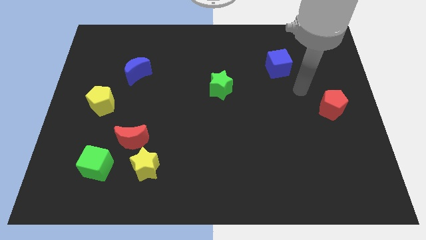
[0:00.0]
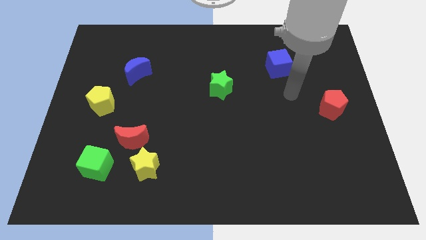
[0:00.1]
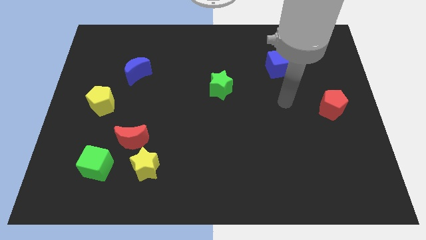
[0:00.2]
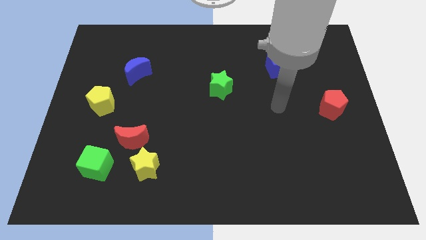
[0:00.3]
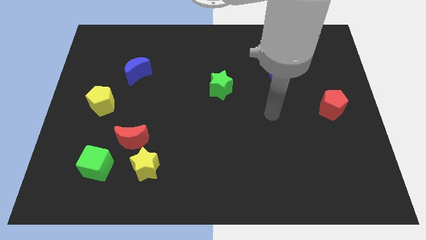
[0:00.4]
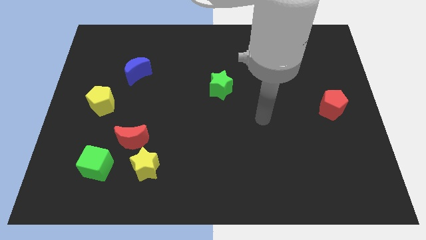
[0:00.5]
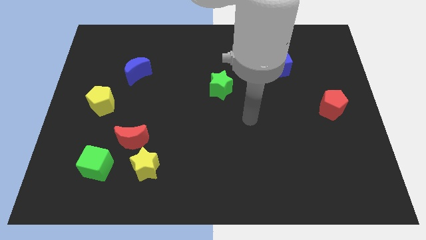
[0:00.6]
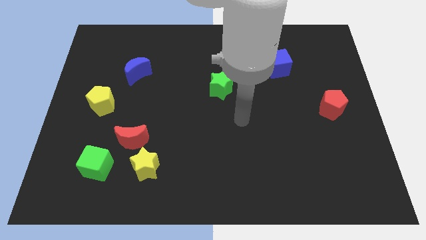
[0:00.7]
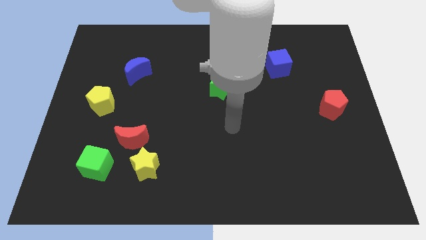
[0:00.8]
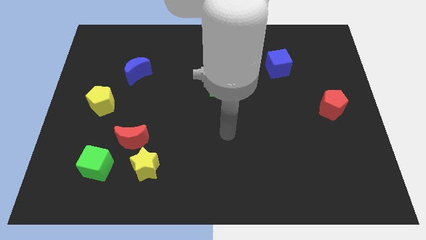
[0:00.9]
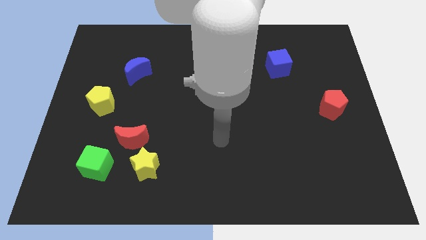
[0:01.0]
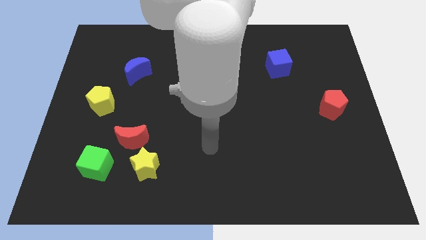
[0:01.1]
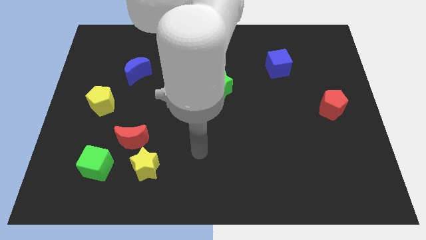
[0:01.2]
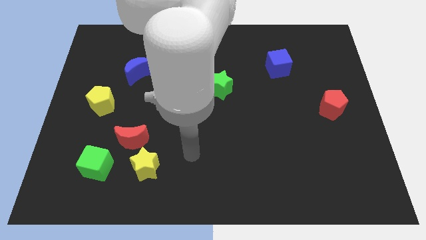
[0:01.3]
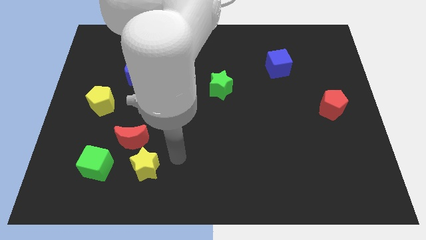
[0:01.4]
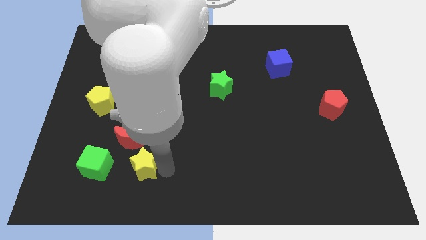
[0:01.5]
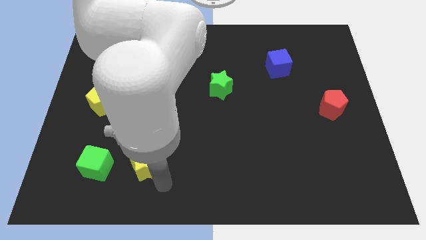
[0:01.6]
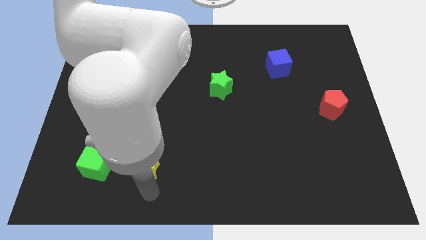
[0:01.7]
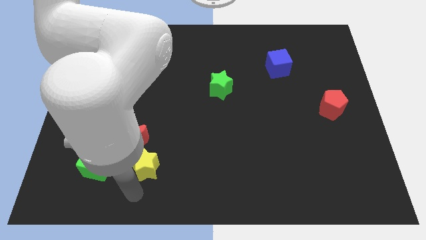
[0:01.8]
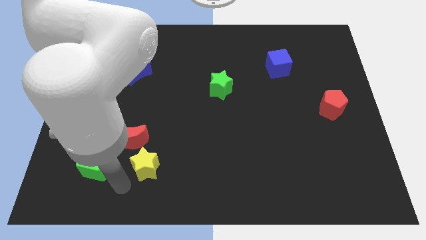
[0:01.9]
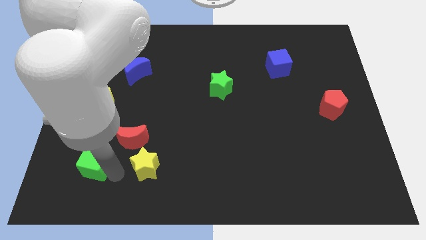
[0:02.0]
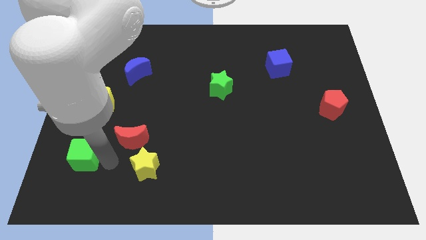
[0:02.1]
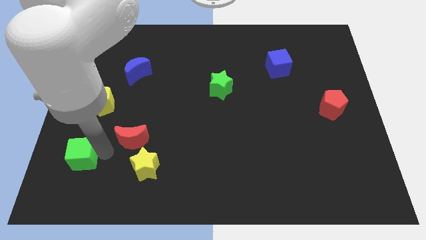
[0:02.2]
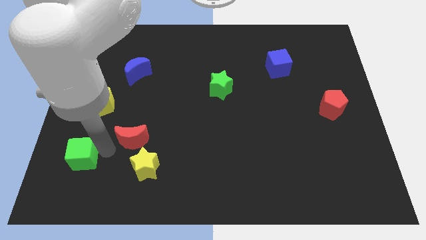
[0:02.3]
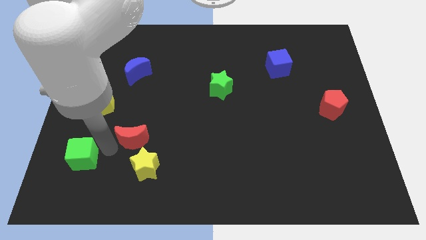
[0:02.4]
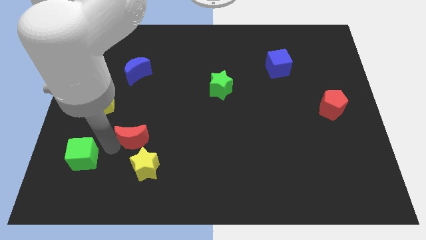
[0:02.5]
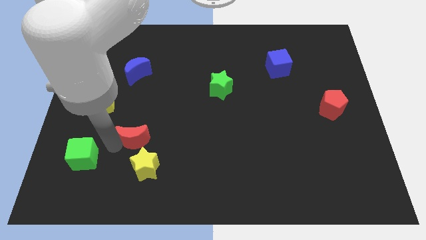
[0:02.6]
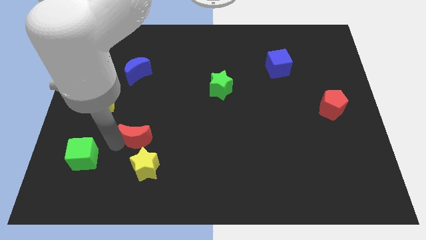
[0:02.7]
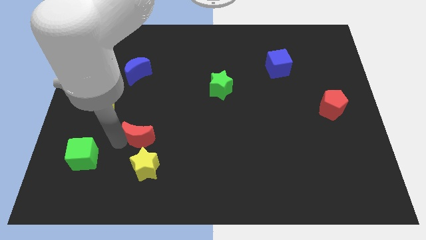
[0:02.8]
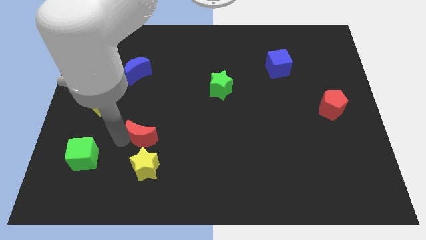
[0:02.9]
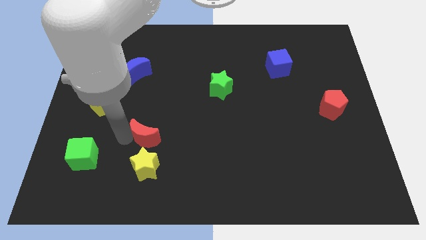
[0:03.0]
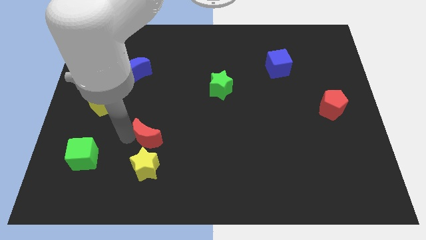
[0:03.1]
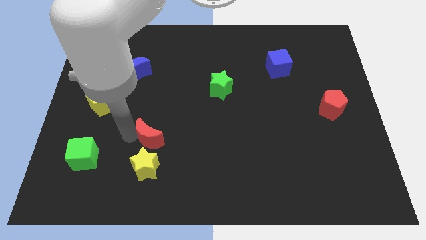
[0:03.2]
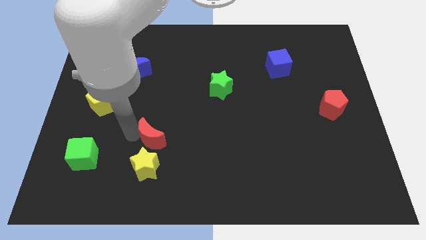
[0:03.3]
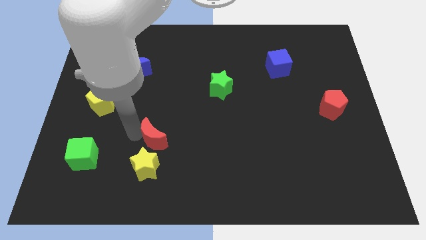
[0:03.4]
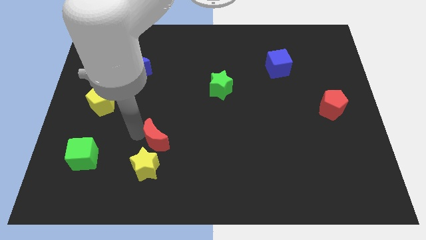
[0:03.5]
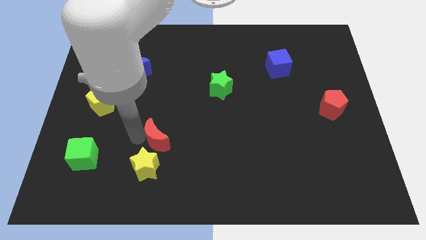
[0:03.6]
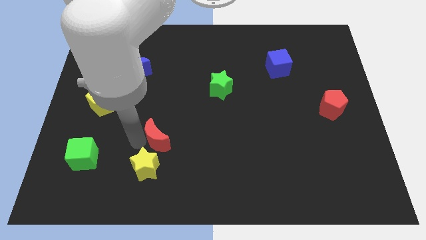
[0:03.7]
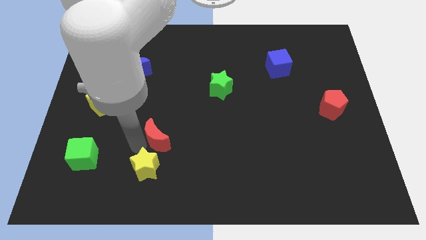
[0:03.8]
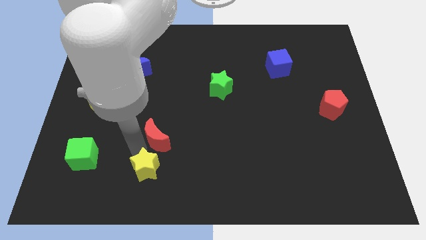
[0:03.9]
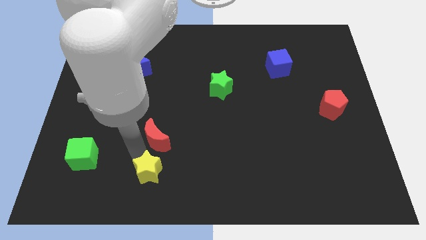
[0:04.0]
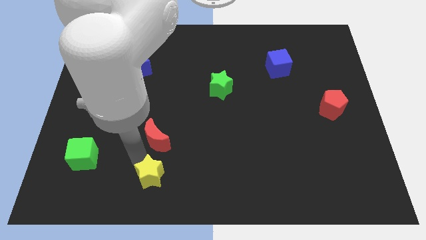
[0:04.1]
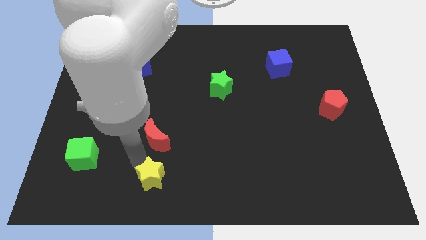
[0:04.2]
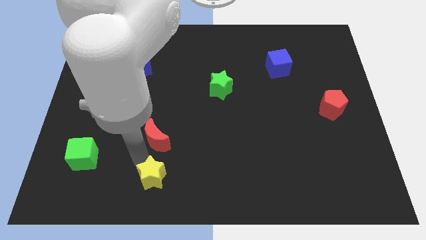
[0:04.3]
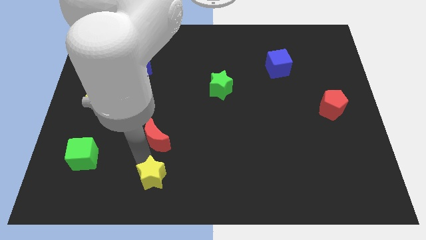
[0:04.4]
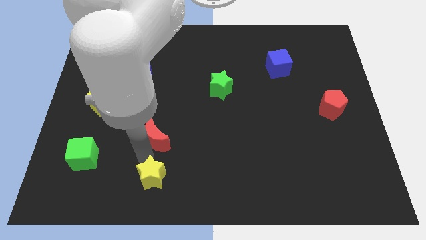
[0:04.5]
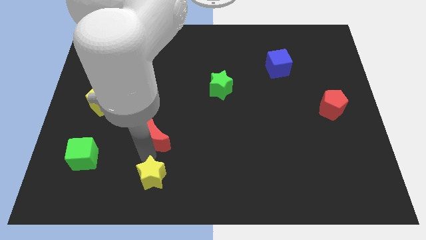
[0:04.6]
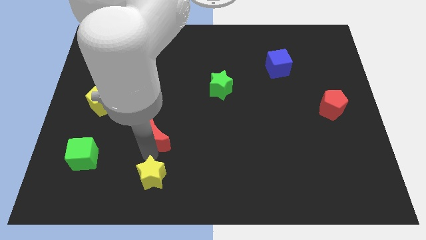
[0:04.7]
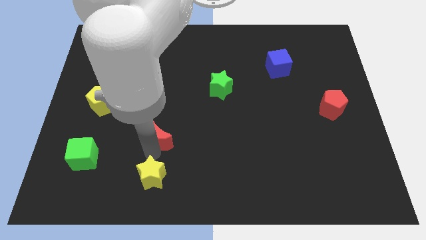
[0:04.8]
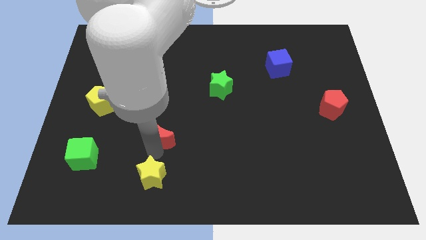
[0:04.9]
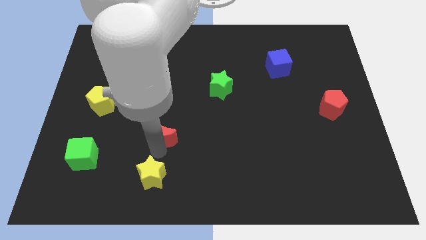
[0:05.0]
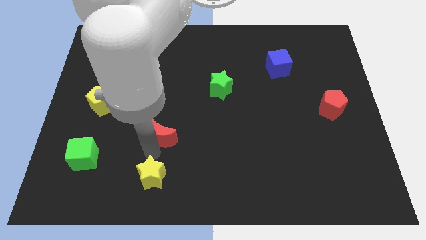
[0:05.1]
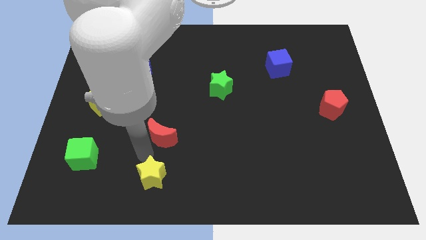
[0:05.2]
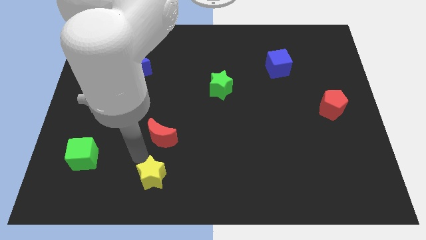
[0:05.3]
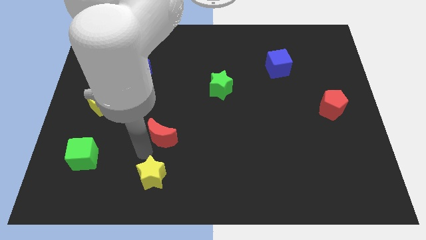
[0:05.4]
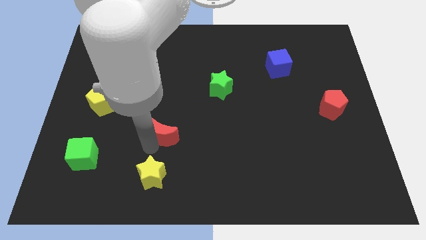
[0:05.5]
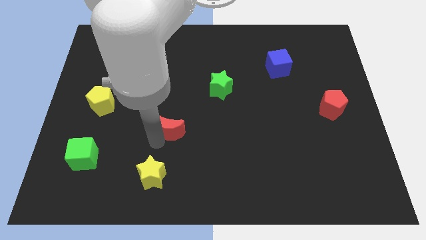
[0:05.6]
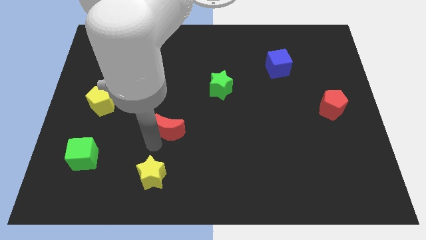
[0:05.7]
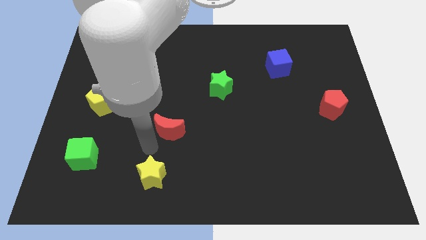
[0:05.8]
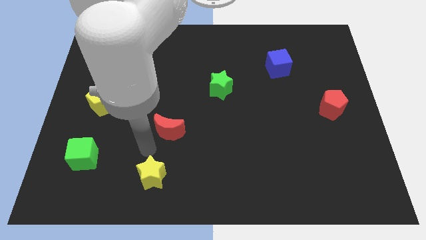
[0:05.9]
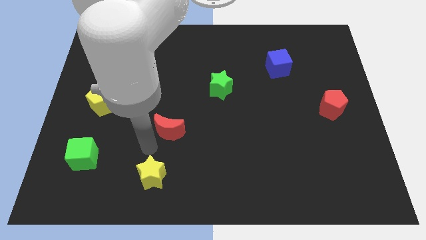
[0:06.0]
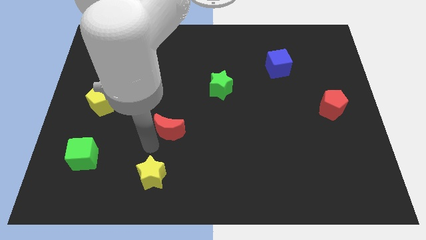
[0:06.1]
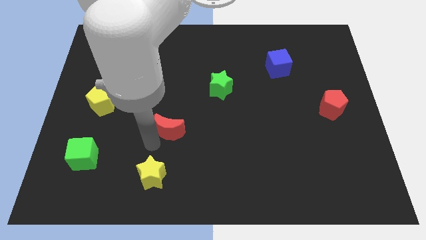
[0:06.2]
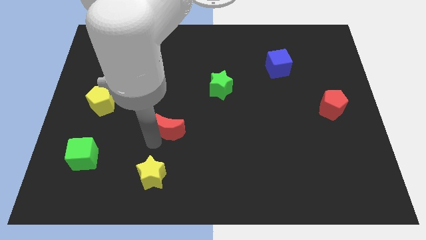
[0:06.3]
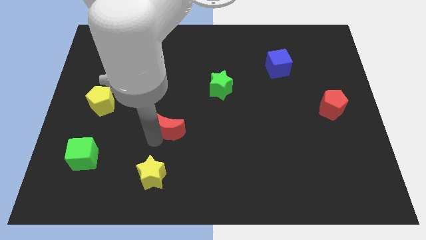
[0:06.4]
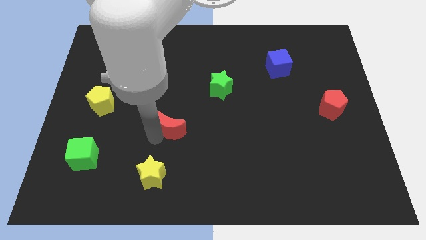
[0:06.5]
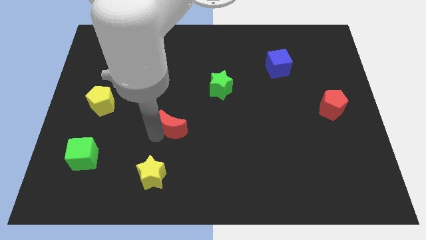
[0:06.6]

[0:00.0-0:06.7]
slide the red moon to the middle

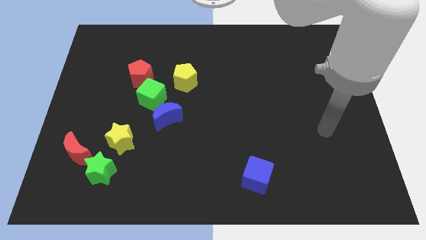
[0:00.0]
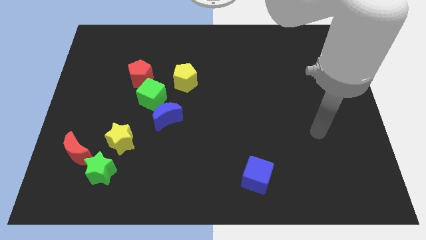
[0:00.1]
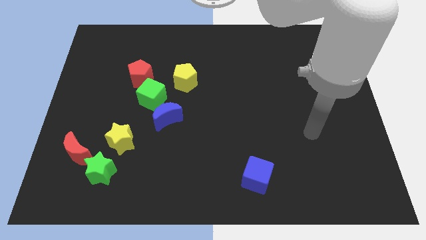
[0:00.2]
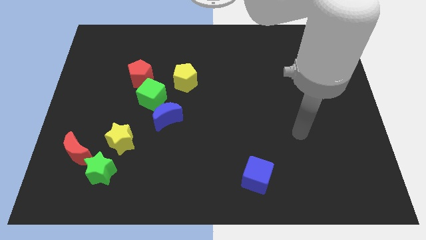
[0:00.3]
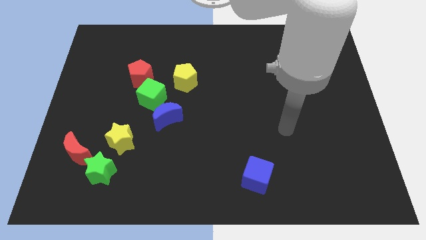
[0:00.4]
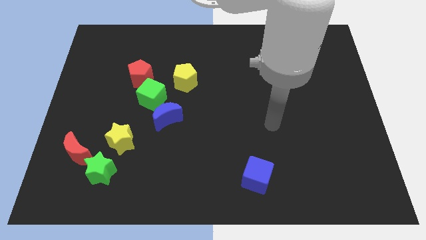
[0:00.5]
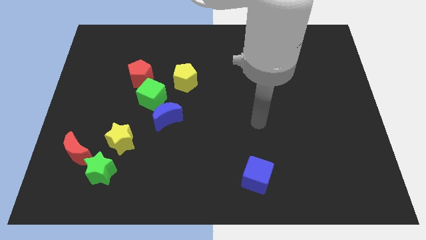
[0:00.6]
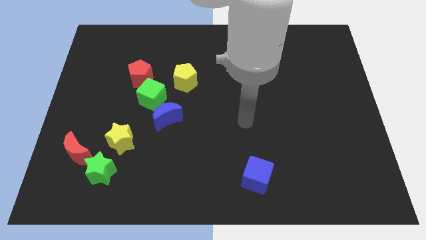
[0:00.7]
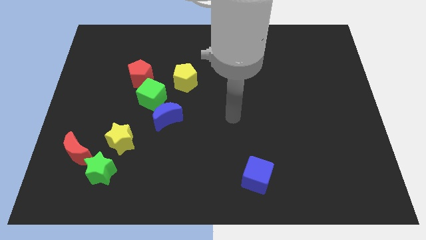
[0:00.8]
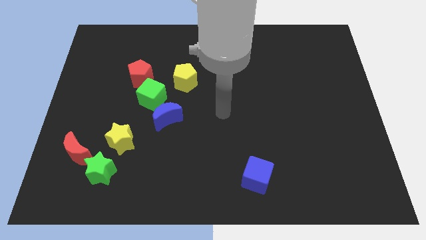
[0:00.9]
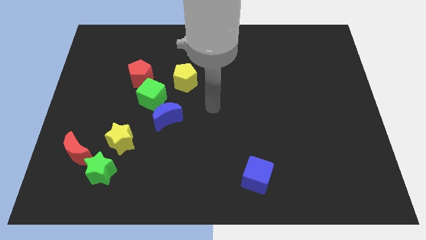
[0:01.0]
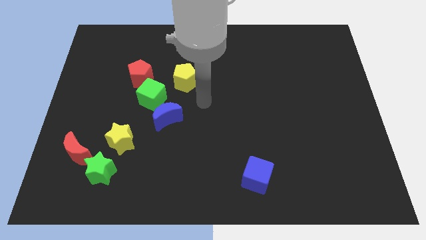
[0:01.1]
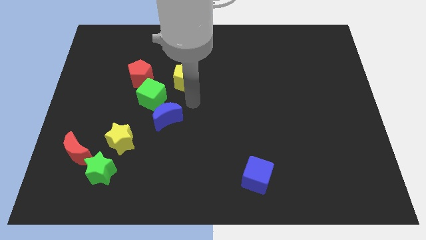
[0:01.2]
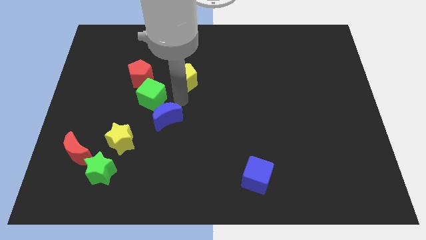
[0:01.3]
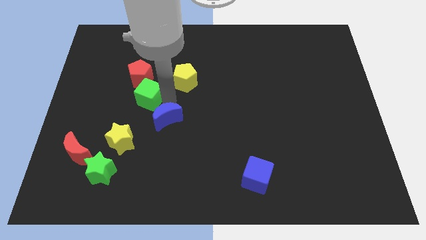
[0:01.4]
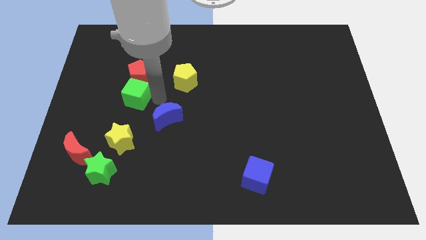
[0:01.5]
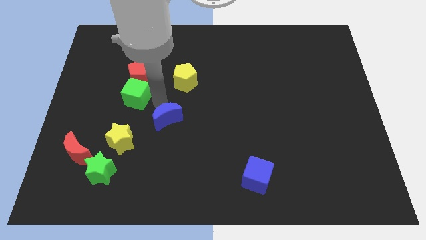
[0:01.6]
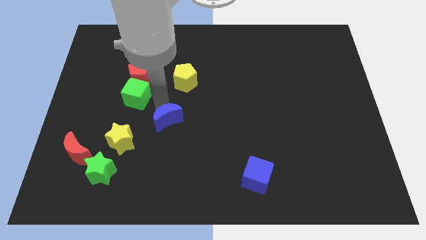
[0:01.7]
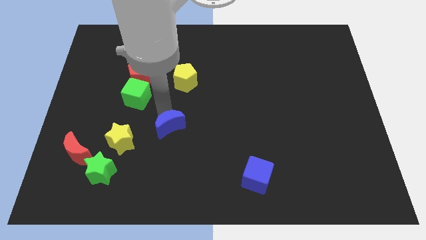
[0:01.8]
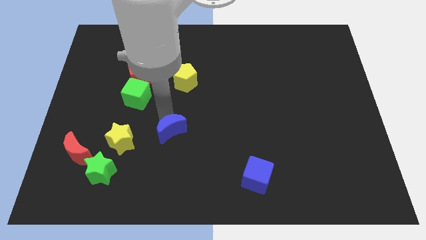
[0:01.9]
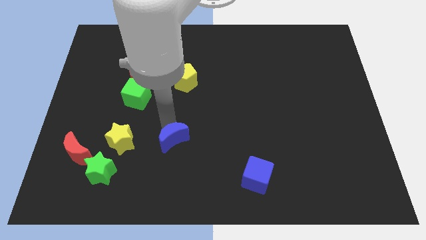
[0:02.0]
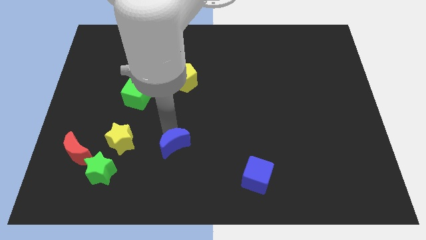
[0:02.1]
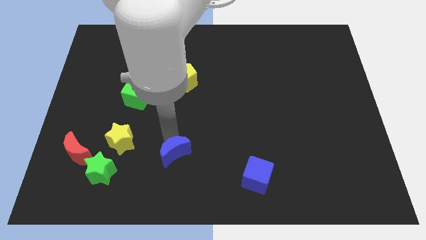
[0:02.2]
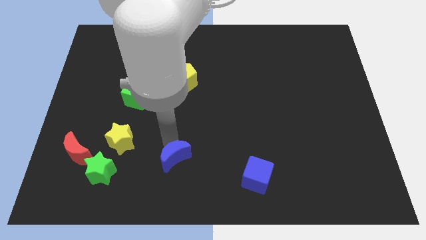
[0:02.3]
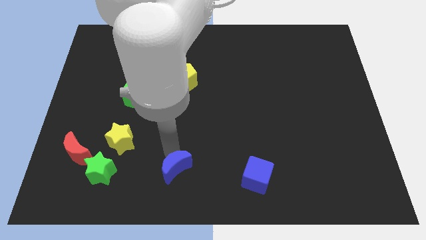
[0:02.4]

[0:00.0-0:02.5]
move the blue moon to the bottom side
